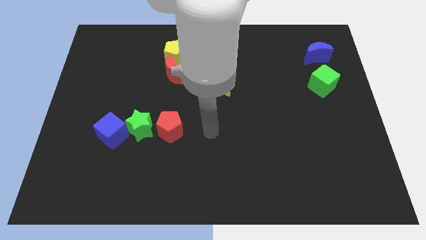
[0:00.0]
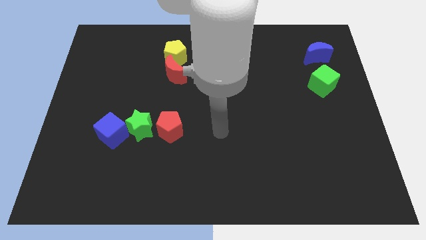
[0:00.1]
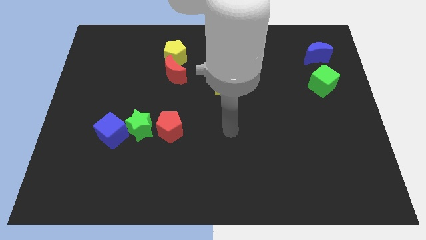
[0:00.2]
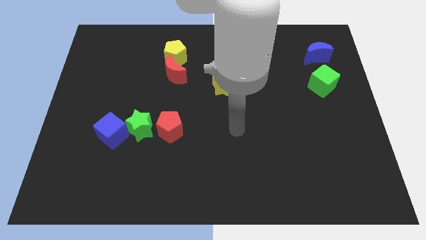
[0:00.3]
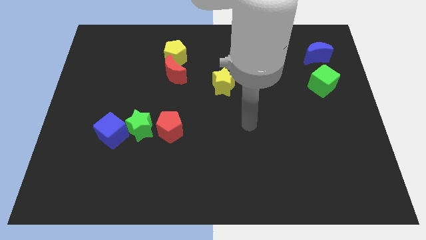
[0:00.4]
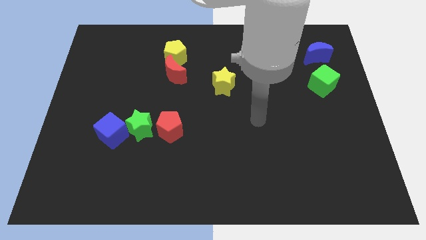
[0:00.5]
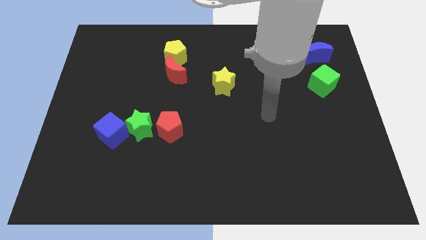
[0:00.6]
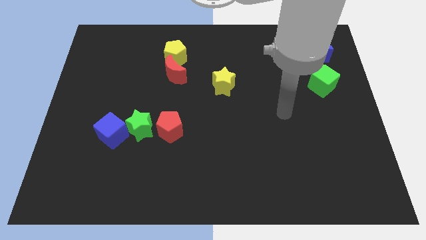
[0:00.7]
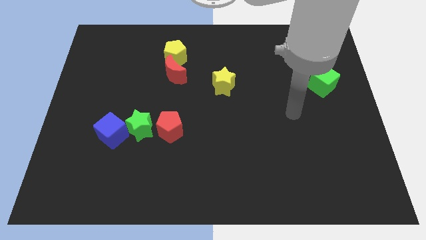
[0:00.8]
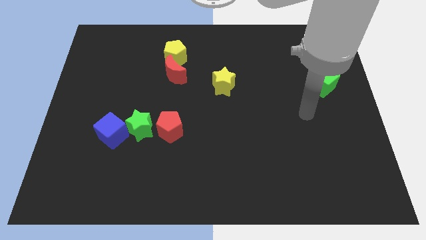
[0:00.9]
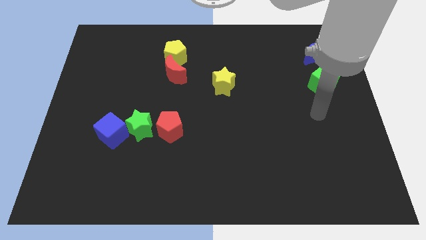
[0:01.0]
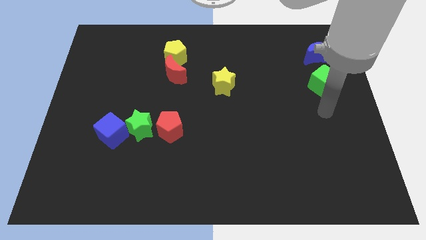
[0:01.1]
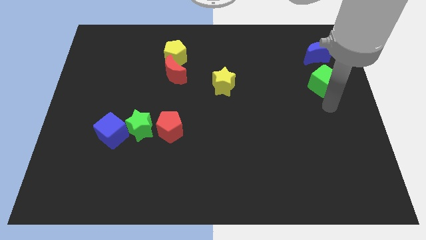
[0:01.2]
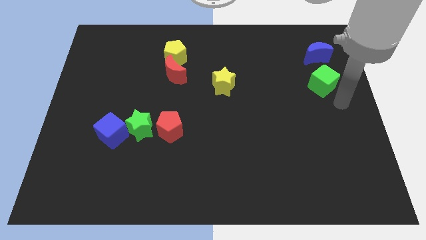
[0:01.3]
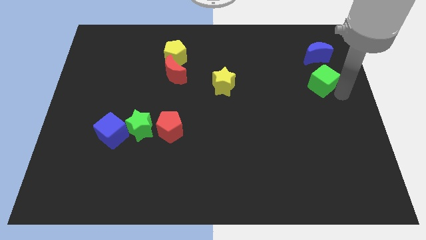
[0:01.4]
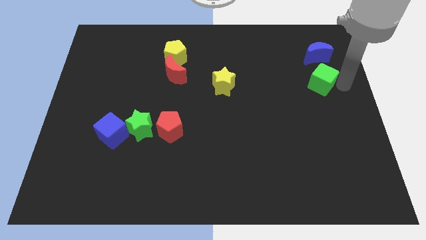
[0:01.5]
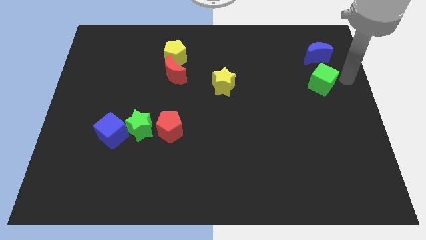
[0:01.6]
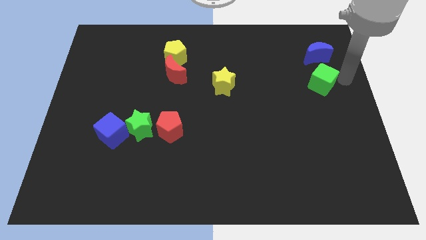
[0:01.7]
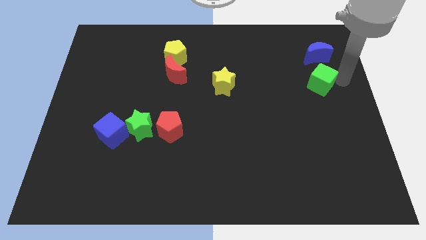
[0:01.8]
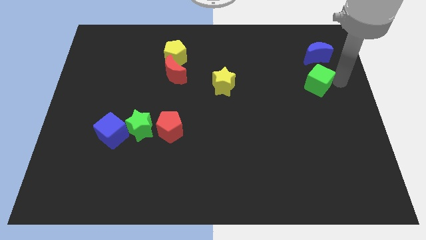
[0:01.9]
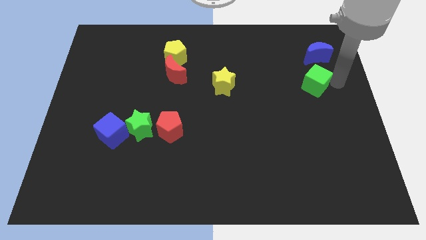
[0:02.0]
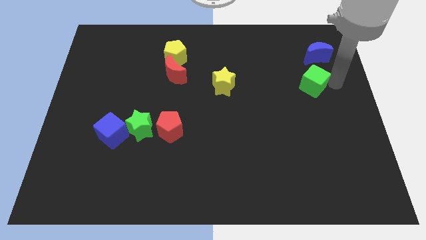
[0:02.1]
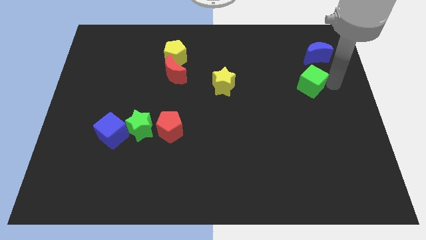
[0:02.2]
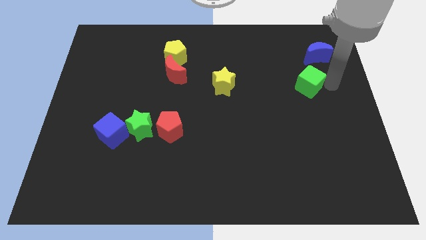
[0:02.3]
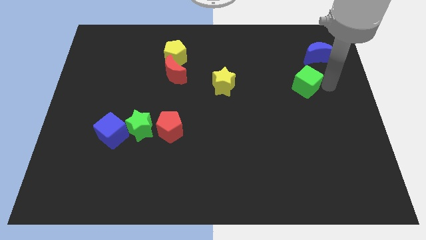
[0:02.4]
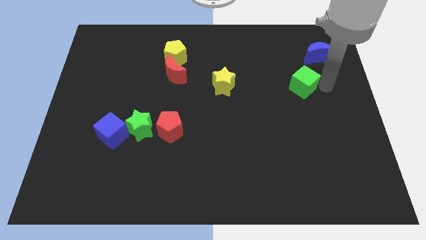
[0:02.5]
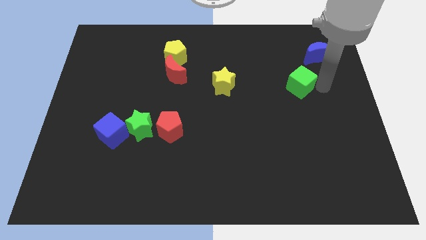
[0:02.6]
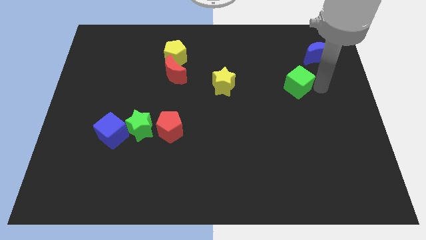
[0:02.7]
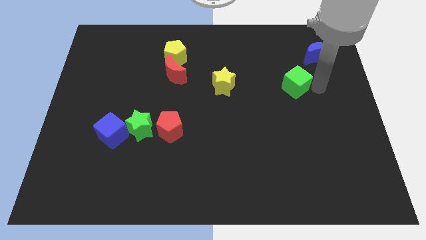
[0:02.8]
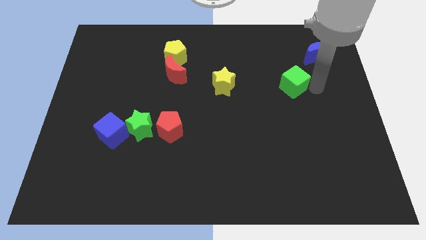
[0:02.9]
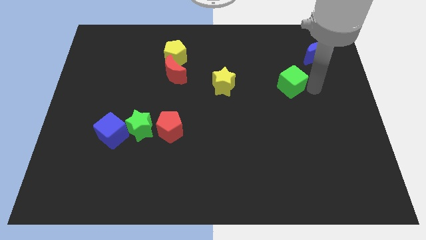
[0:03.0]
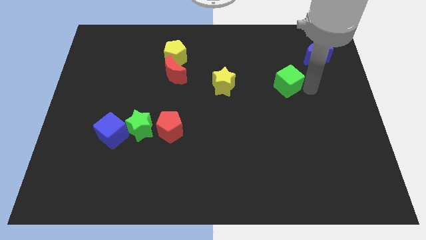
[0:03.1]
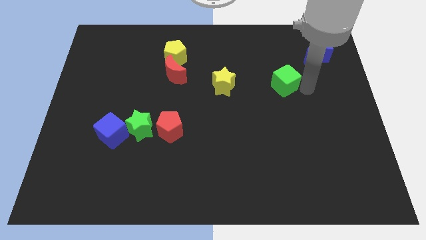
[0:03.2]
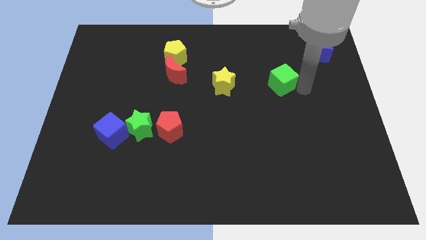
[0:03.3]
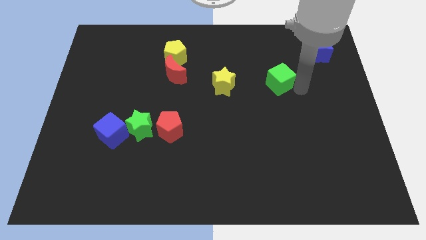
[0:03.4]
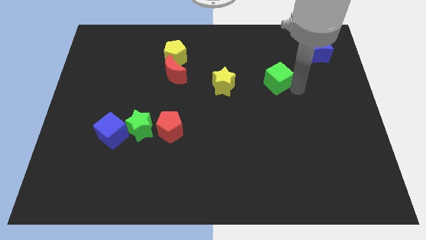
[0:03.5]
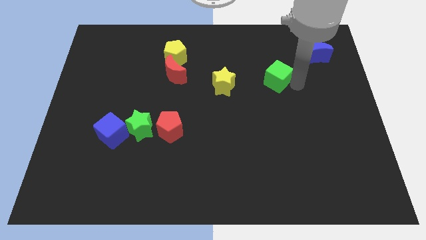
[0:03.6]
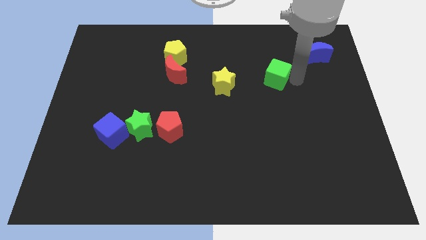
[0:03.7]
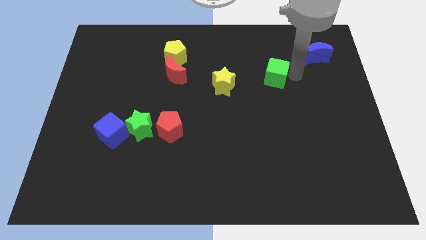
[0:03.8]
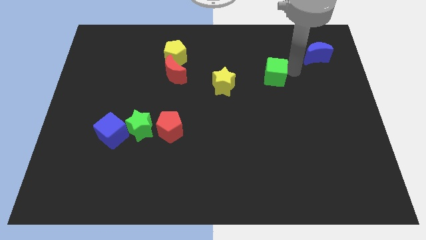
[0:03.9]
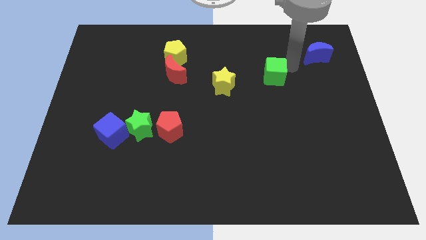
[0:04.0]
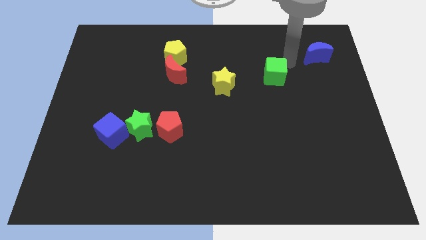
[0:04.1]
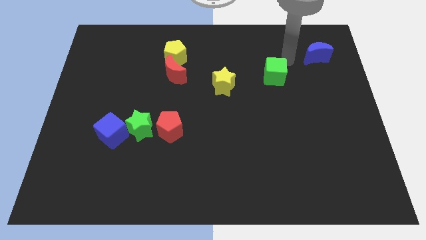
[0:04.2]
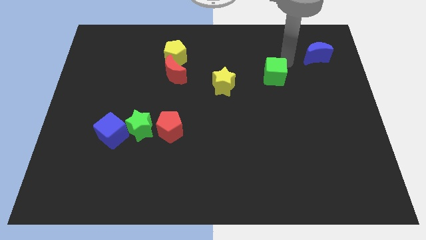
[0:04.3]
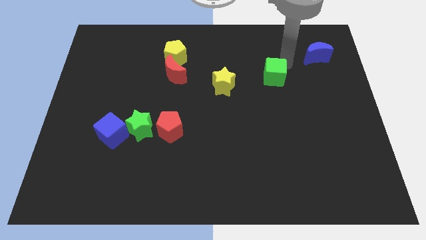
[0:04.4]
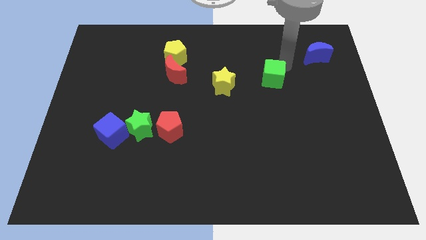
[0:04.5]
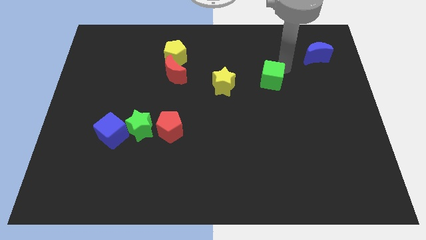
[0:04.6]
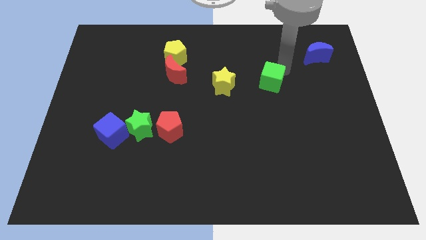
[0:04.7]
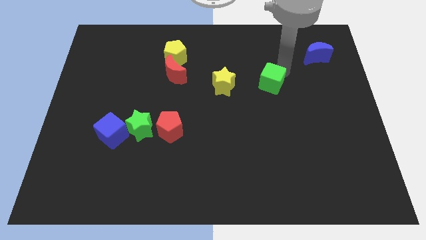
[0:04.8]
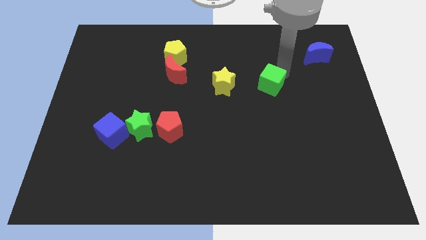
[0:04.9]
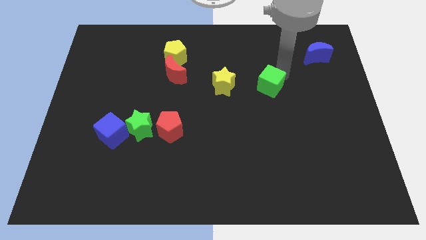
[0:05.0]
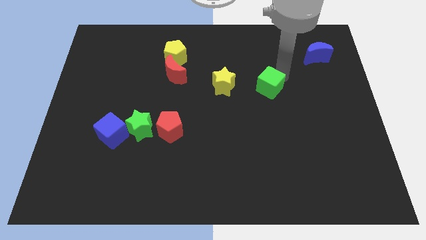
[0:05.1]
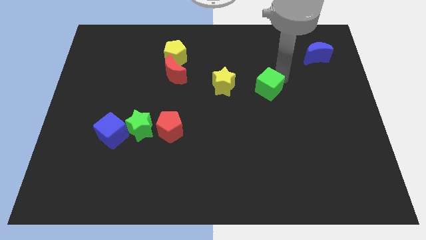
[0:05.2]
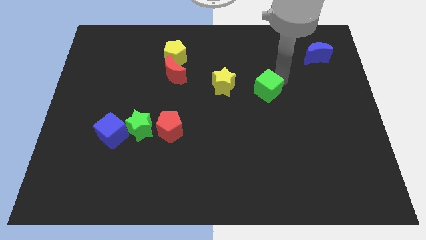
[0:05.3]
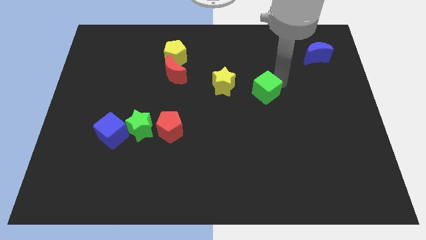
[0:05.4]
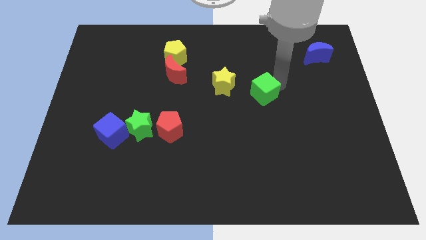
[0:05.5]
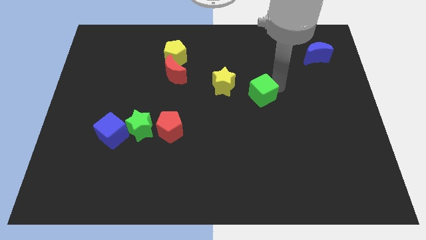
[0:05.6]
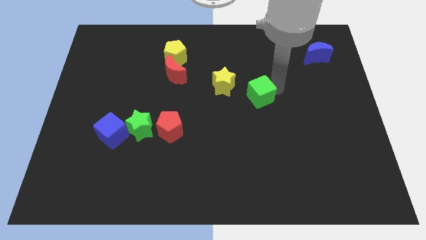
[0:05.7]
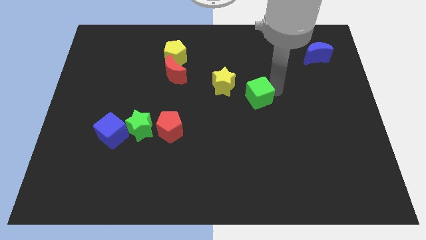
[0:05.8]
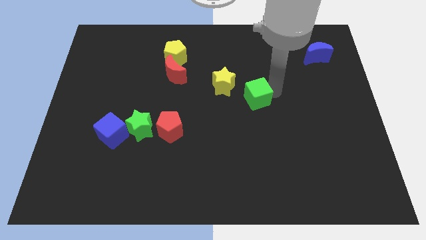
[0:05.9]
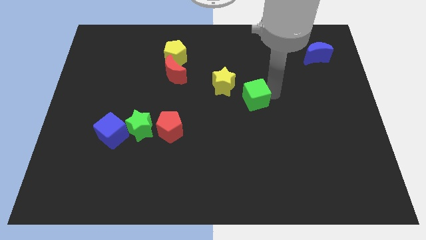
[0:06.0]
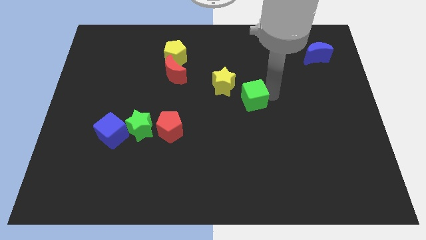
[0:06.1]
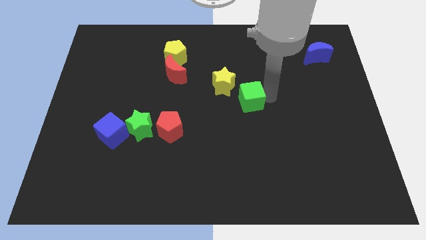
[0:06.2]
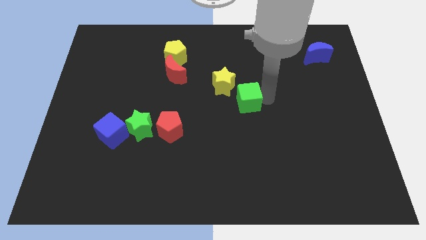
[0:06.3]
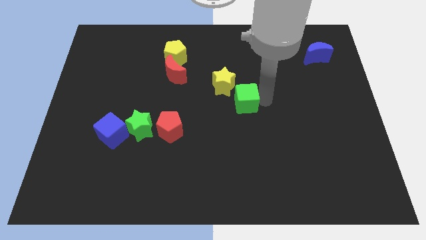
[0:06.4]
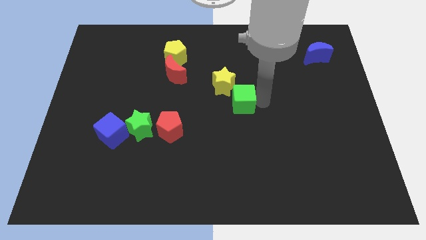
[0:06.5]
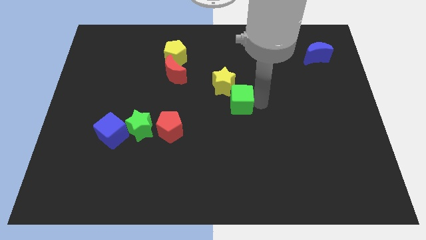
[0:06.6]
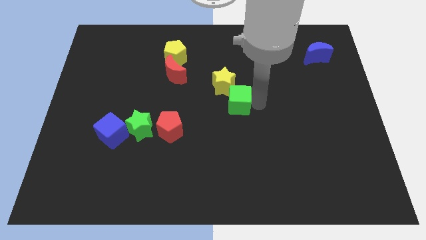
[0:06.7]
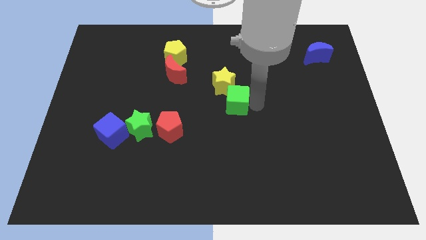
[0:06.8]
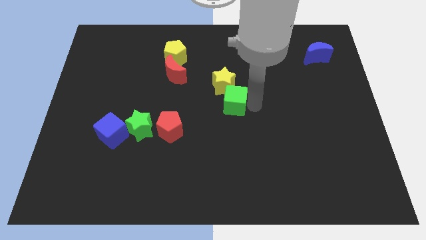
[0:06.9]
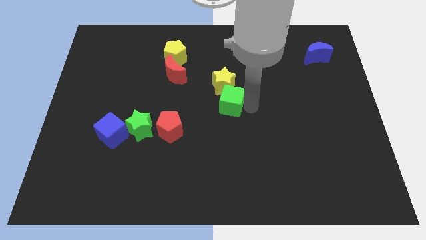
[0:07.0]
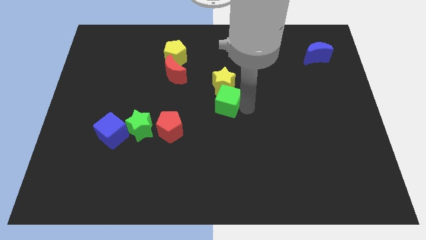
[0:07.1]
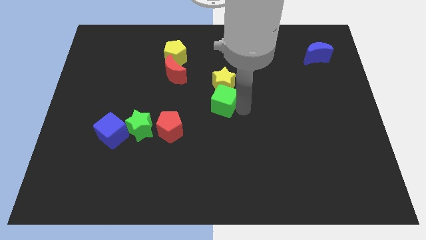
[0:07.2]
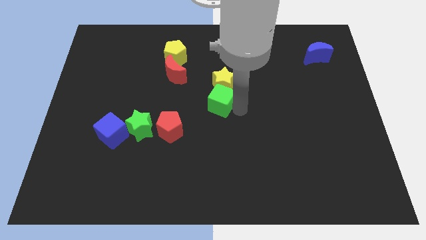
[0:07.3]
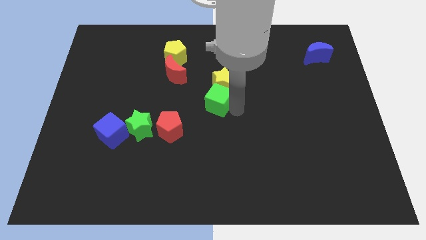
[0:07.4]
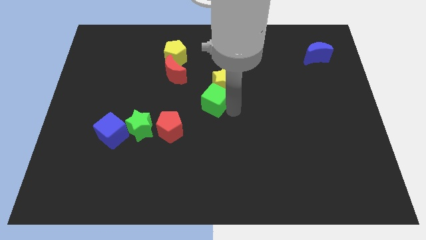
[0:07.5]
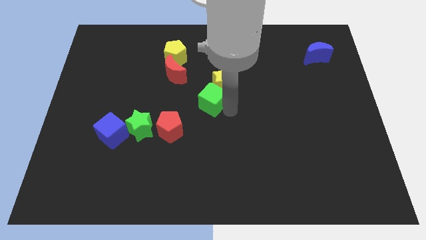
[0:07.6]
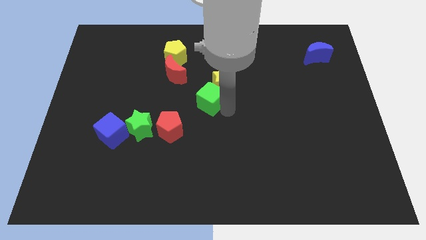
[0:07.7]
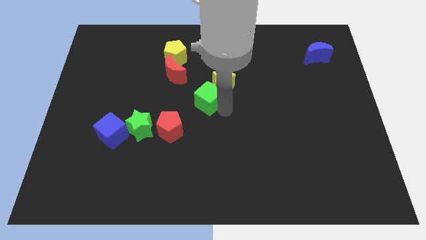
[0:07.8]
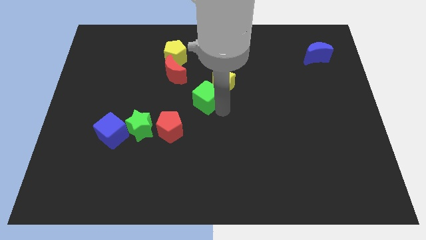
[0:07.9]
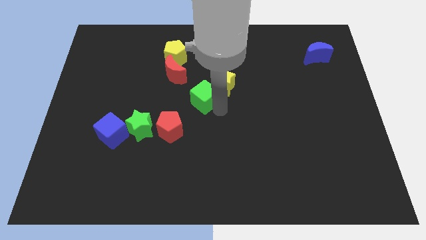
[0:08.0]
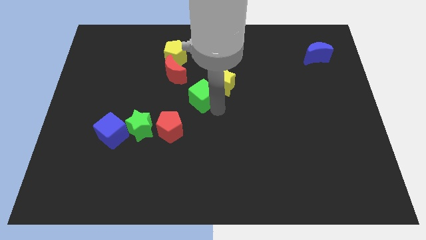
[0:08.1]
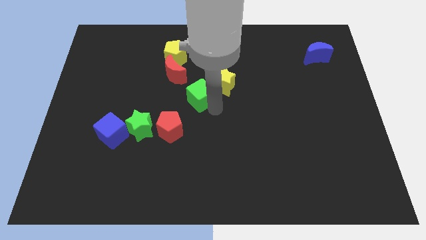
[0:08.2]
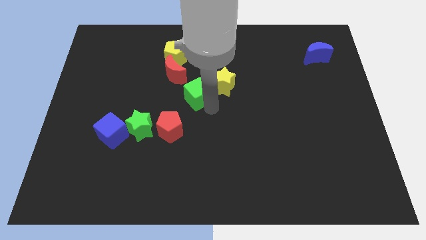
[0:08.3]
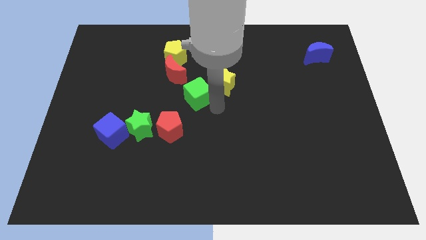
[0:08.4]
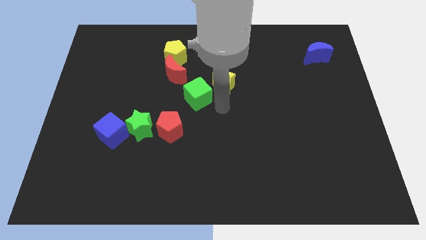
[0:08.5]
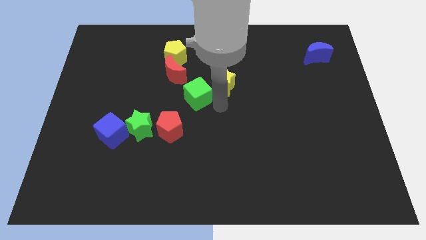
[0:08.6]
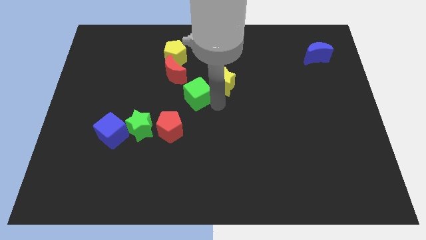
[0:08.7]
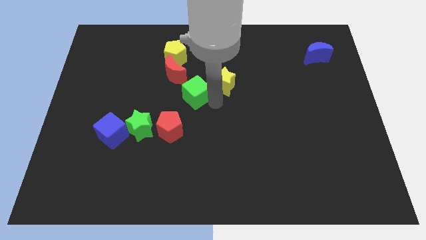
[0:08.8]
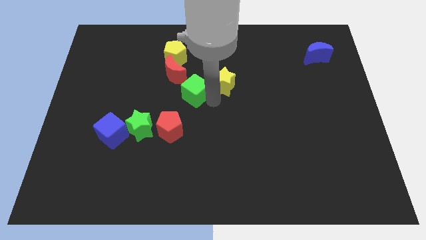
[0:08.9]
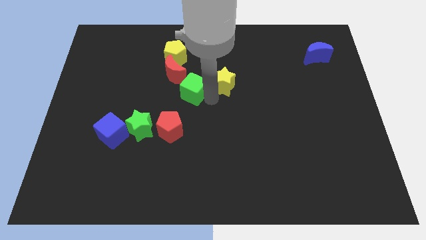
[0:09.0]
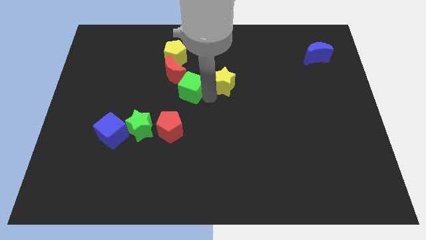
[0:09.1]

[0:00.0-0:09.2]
slide the green cube to the bottom of the yellow pentagon
